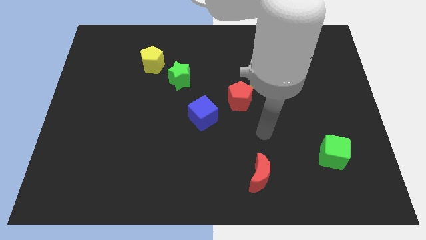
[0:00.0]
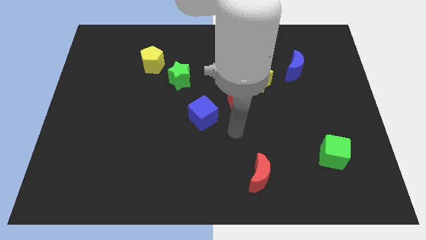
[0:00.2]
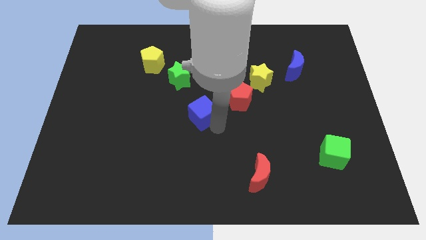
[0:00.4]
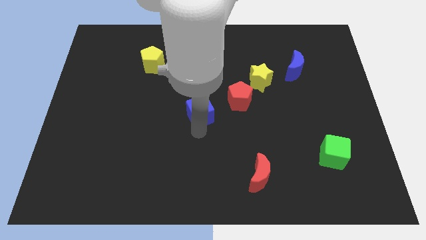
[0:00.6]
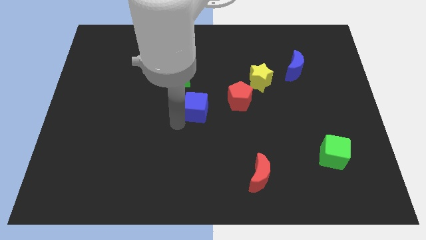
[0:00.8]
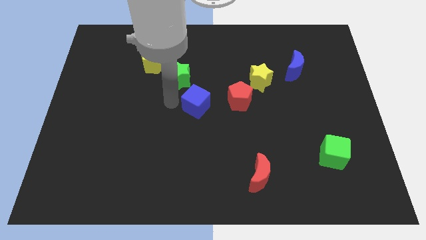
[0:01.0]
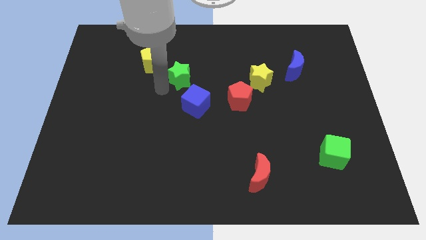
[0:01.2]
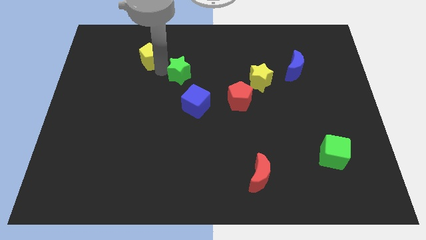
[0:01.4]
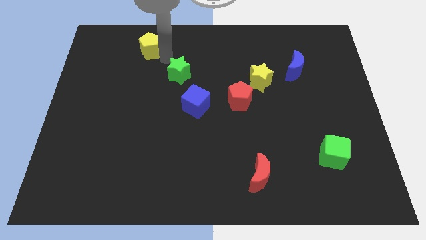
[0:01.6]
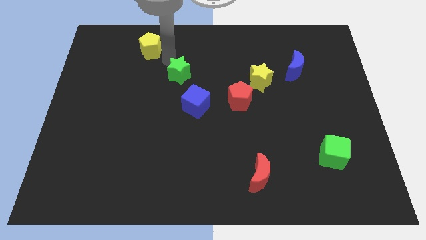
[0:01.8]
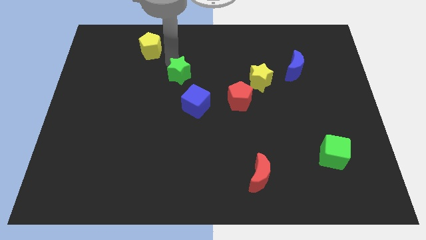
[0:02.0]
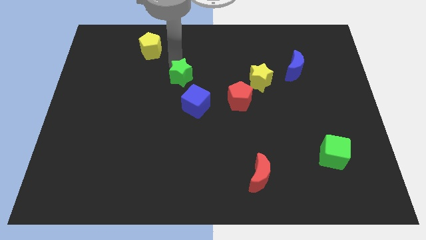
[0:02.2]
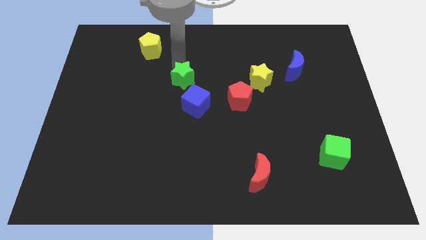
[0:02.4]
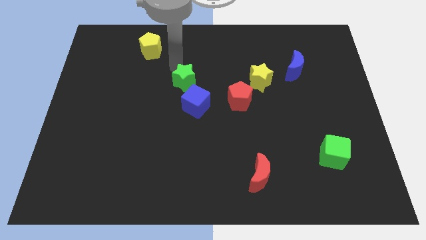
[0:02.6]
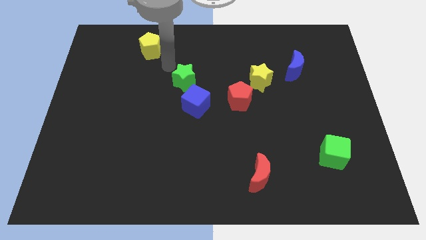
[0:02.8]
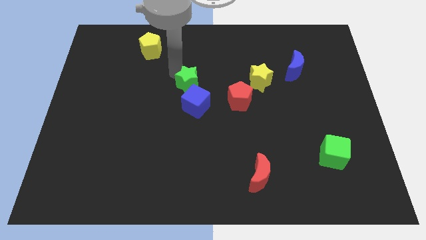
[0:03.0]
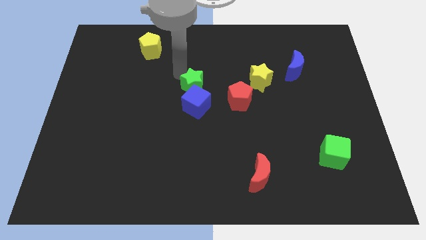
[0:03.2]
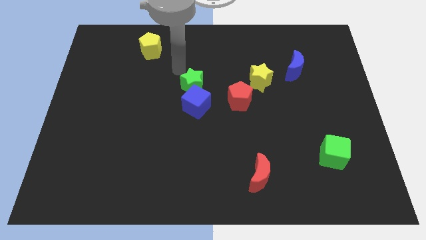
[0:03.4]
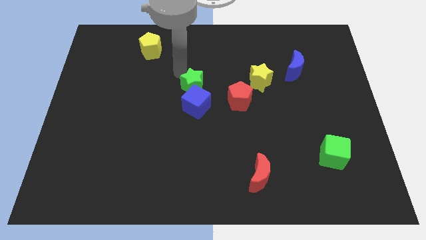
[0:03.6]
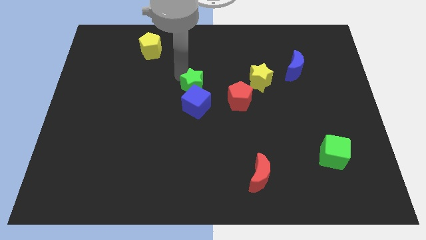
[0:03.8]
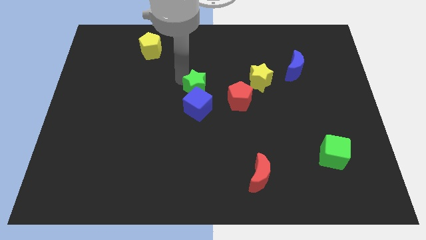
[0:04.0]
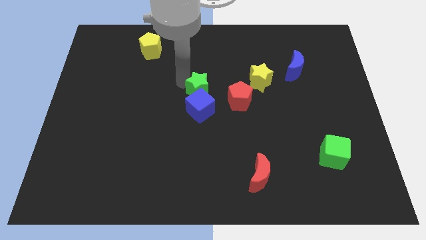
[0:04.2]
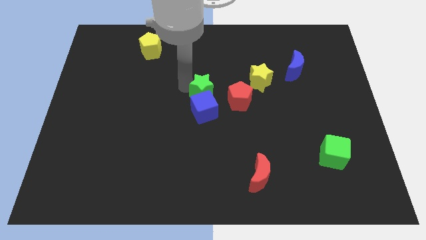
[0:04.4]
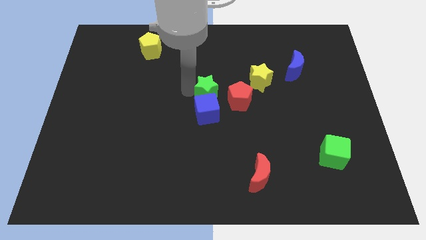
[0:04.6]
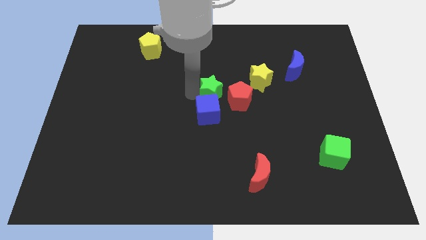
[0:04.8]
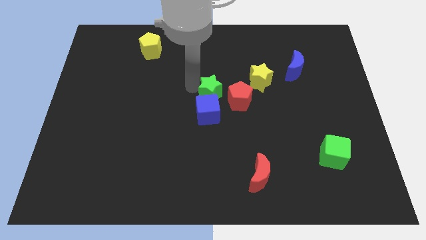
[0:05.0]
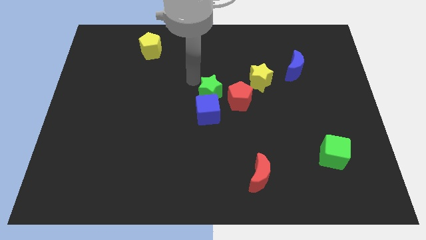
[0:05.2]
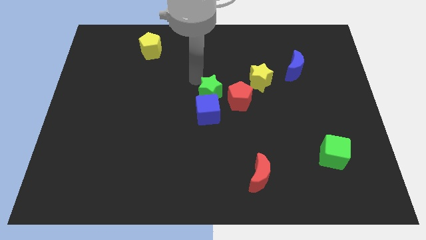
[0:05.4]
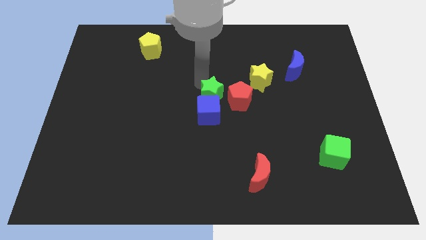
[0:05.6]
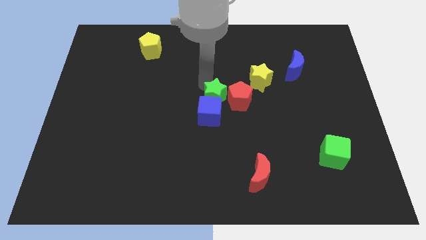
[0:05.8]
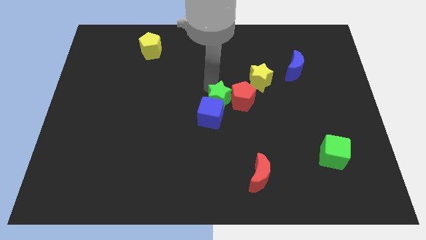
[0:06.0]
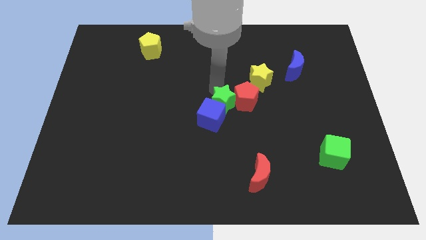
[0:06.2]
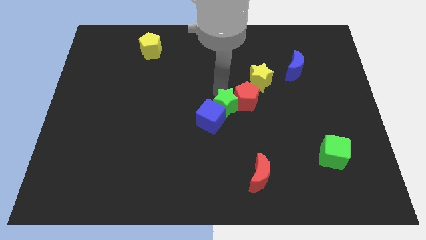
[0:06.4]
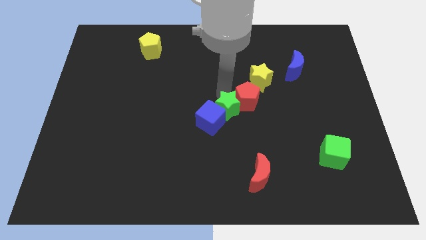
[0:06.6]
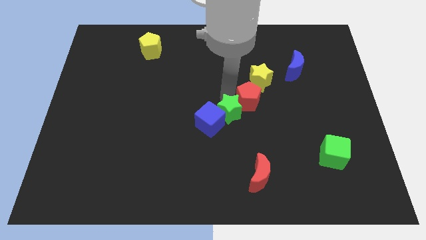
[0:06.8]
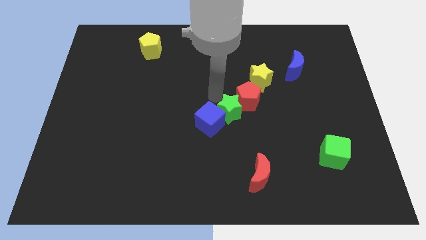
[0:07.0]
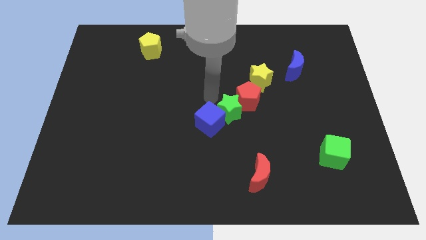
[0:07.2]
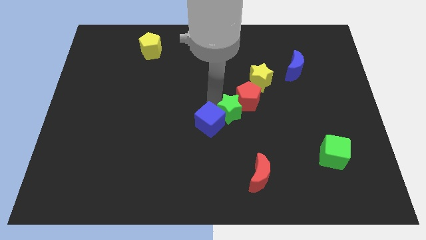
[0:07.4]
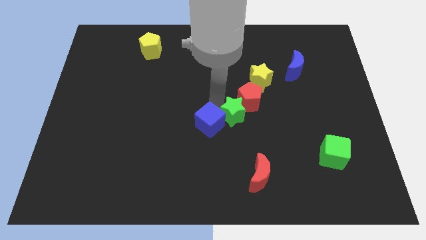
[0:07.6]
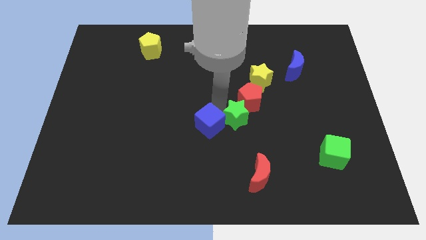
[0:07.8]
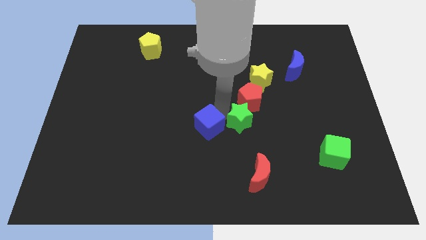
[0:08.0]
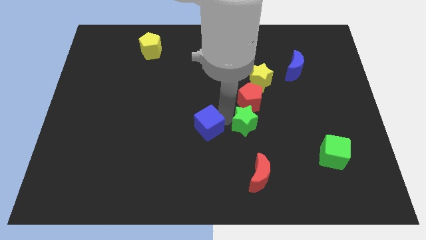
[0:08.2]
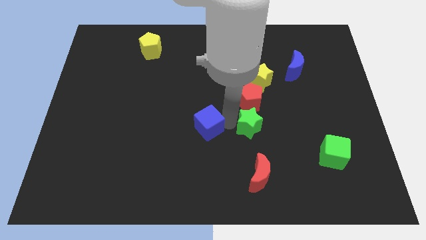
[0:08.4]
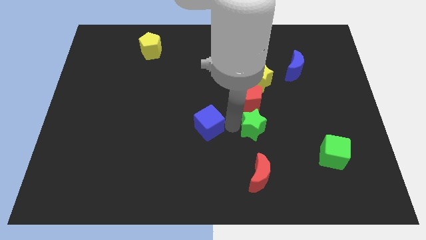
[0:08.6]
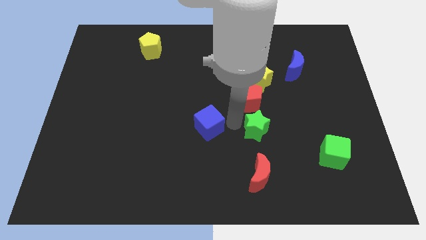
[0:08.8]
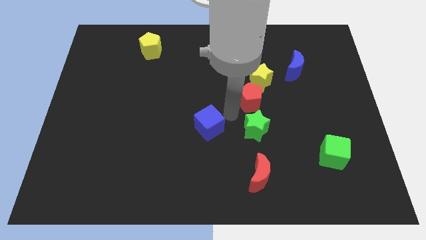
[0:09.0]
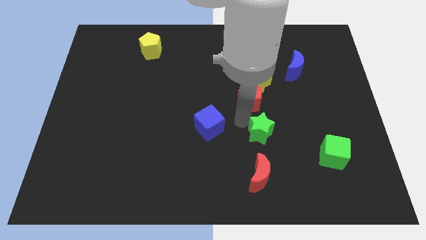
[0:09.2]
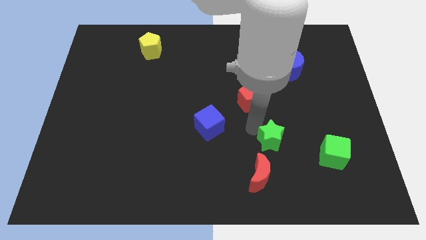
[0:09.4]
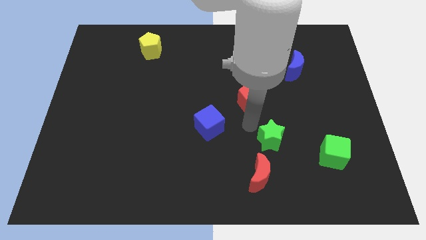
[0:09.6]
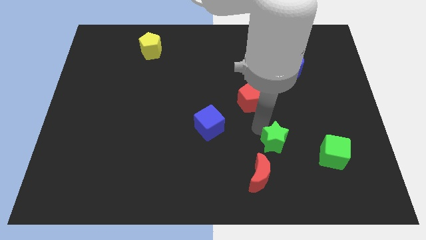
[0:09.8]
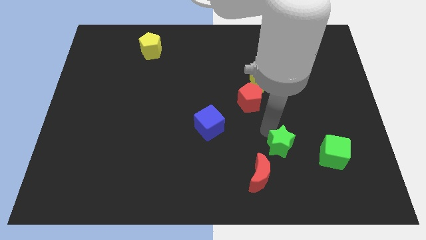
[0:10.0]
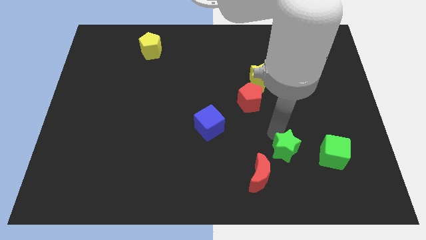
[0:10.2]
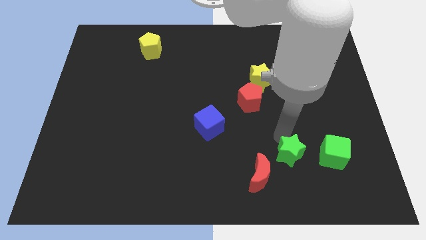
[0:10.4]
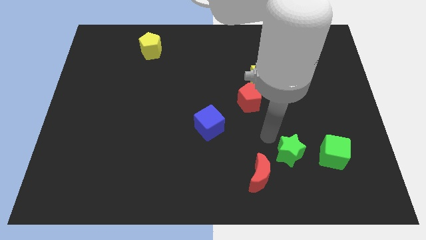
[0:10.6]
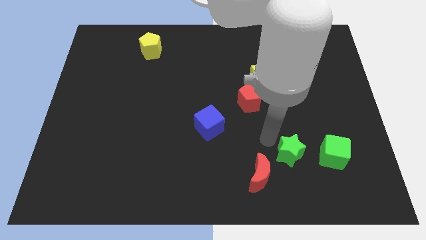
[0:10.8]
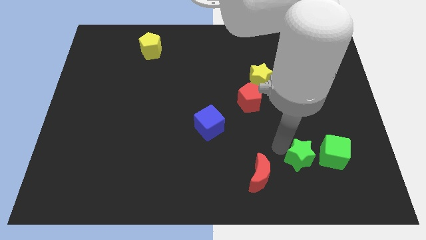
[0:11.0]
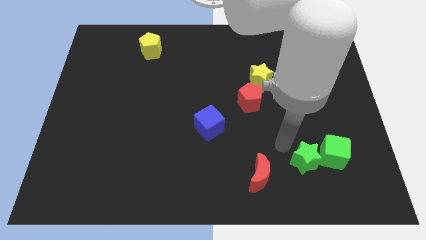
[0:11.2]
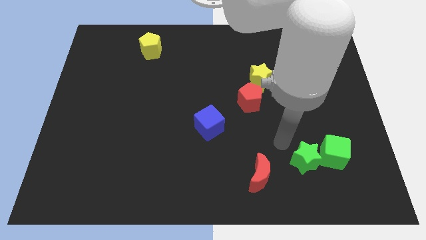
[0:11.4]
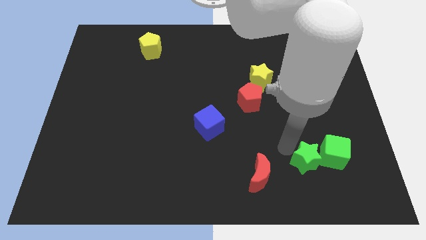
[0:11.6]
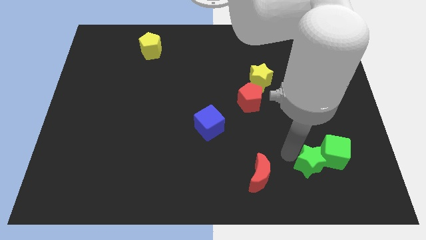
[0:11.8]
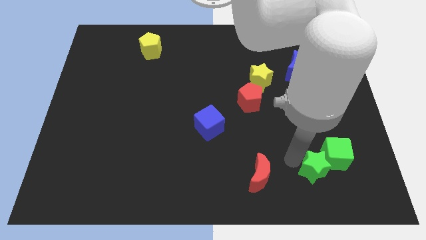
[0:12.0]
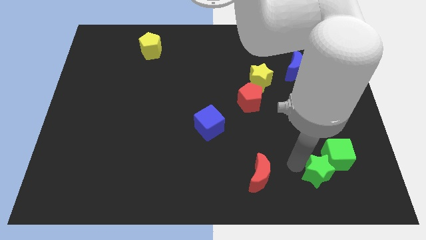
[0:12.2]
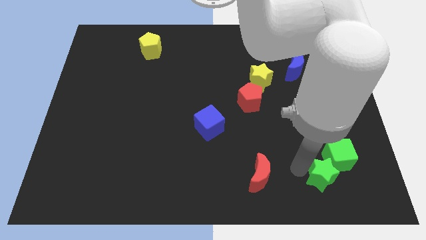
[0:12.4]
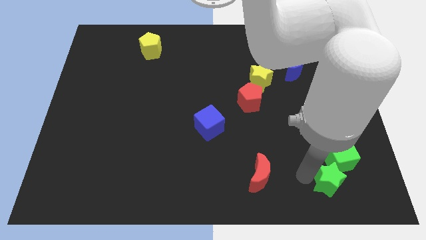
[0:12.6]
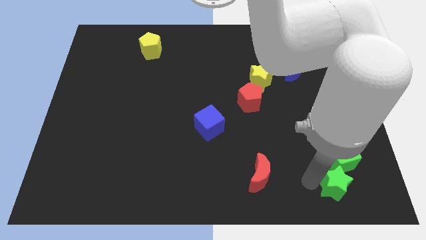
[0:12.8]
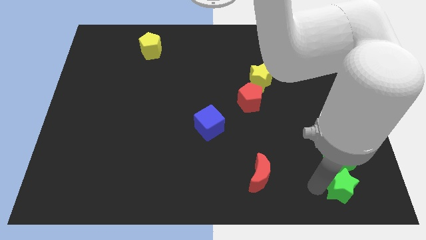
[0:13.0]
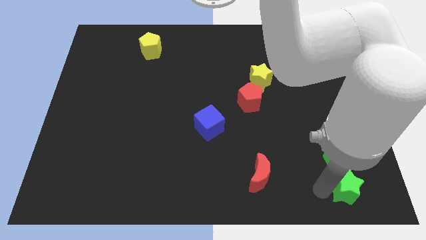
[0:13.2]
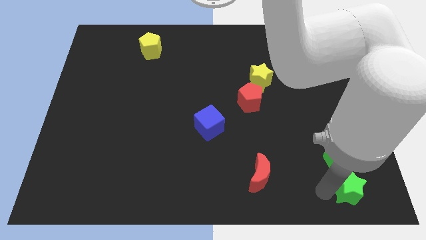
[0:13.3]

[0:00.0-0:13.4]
slide the green star to the bottom right corner
